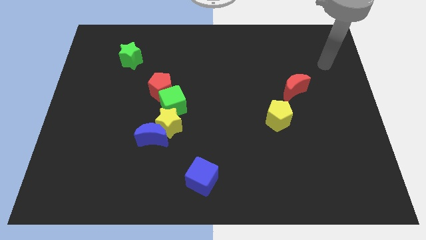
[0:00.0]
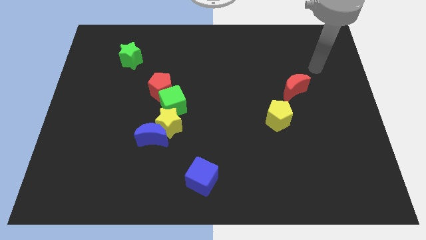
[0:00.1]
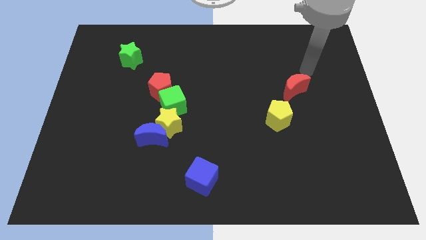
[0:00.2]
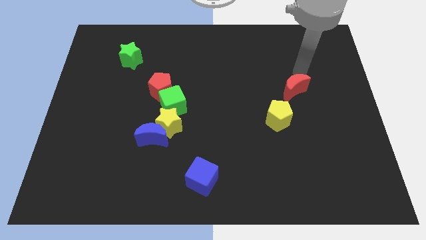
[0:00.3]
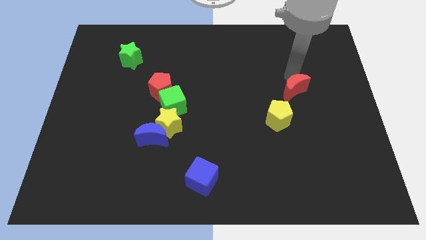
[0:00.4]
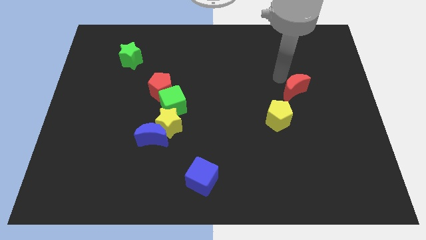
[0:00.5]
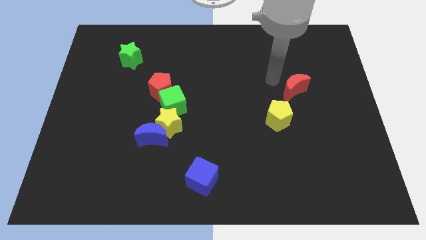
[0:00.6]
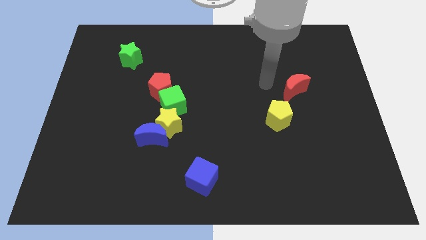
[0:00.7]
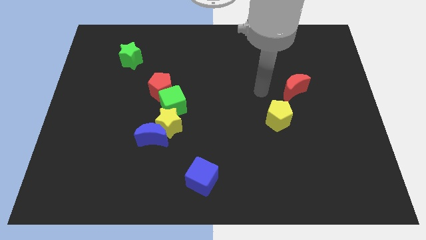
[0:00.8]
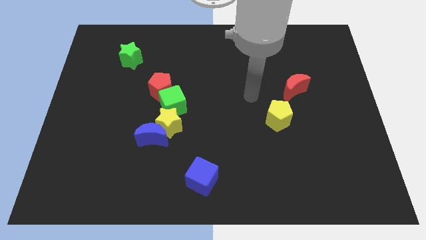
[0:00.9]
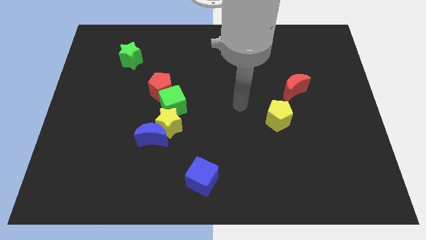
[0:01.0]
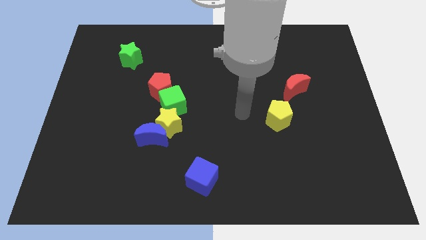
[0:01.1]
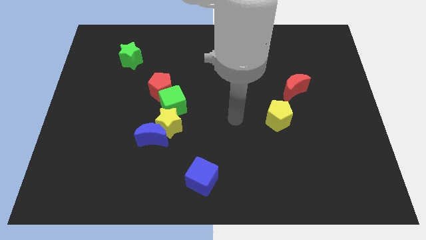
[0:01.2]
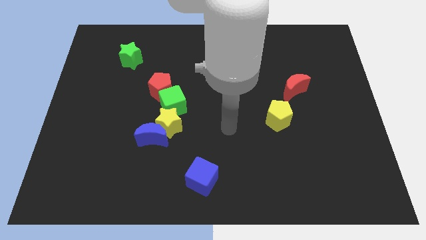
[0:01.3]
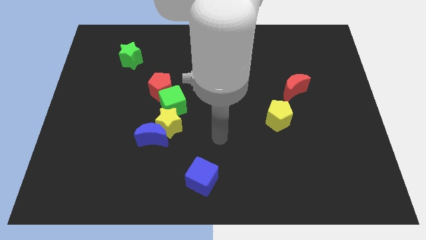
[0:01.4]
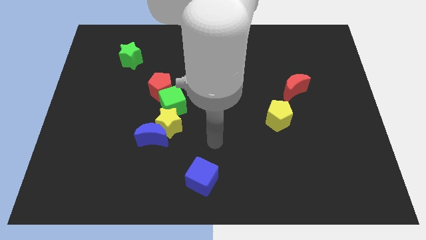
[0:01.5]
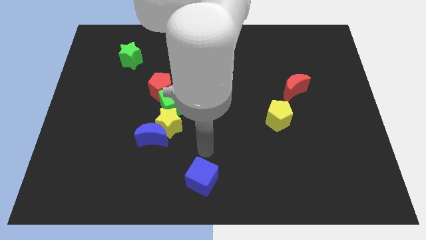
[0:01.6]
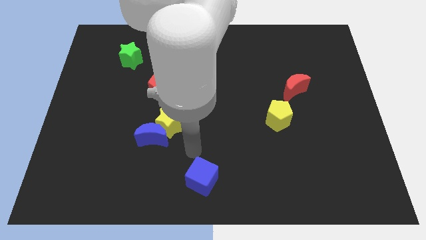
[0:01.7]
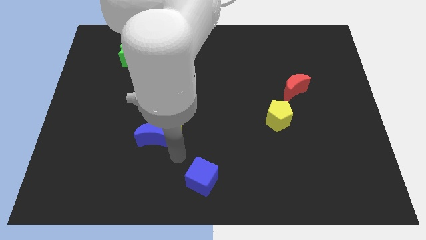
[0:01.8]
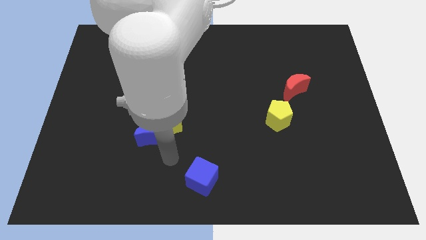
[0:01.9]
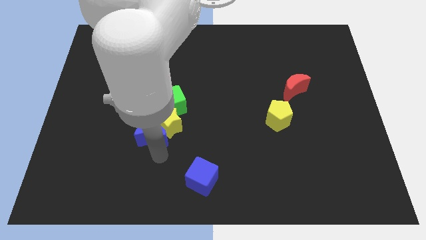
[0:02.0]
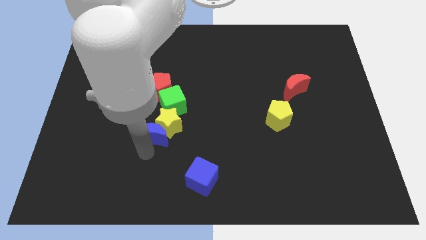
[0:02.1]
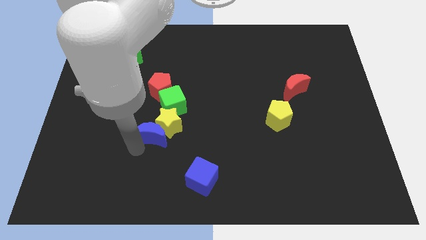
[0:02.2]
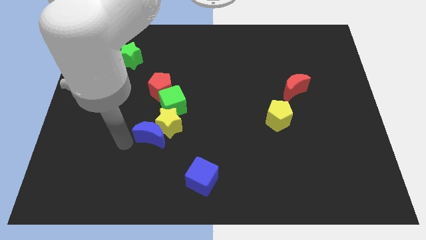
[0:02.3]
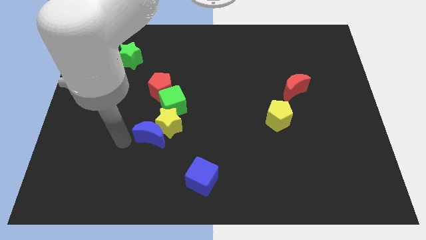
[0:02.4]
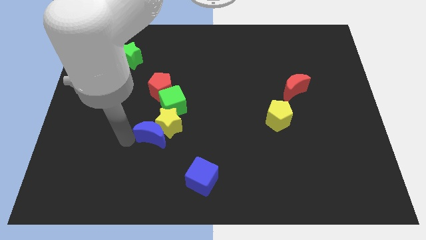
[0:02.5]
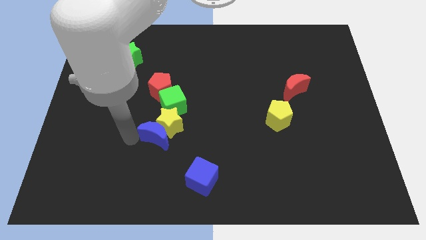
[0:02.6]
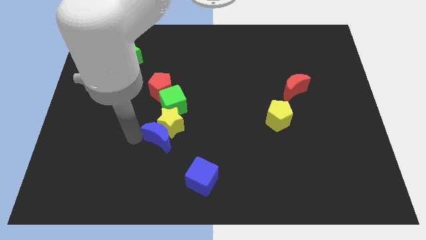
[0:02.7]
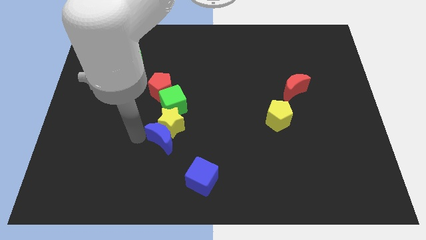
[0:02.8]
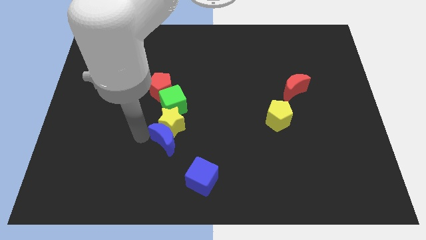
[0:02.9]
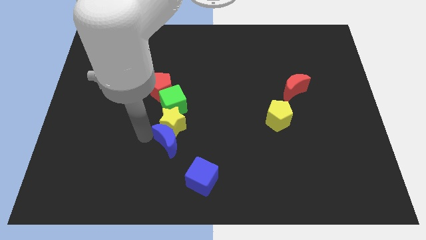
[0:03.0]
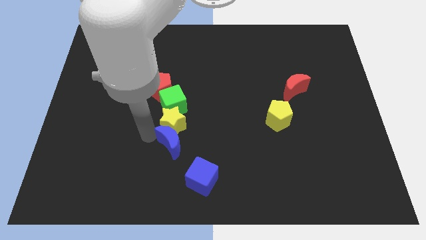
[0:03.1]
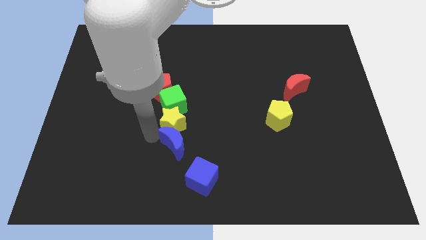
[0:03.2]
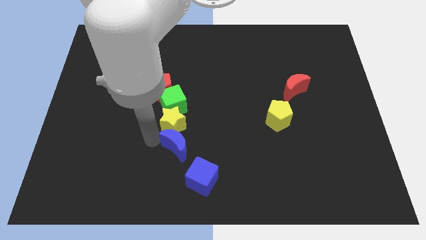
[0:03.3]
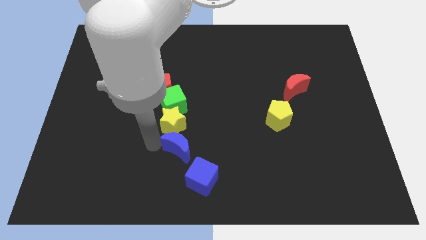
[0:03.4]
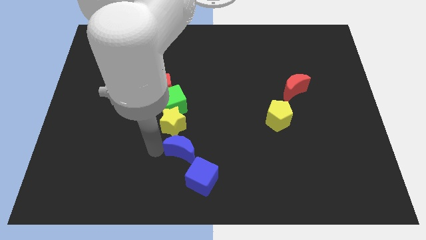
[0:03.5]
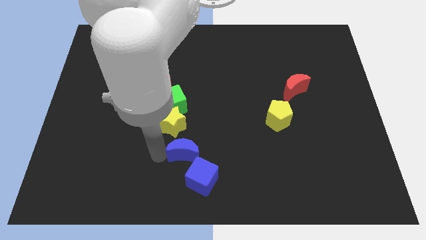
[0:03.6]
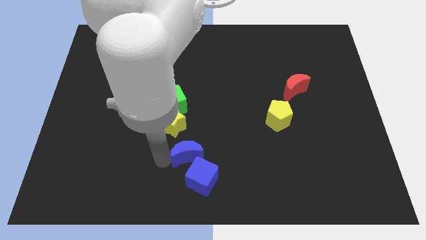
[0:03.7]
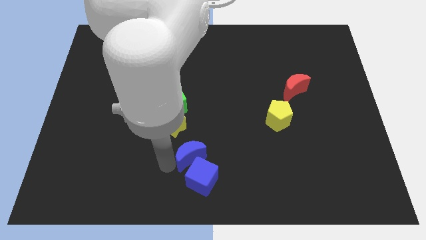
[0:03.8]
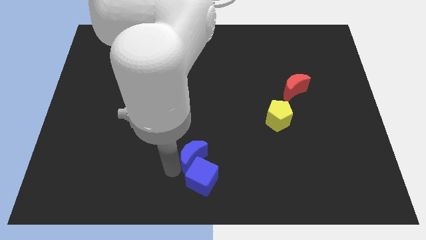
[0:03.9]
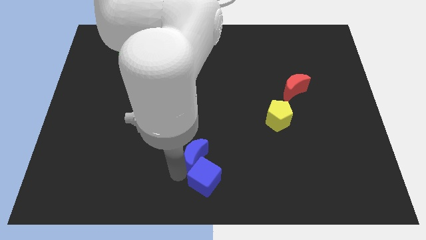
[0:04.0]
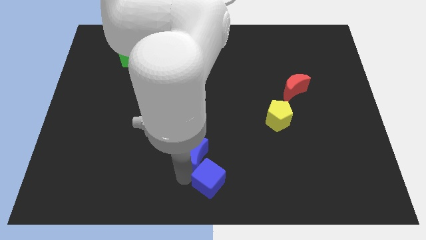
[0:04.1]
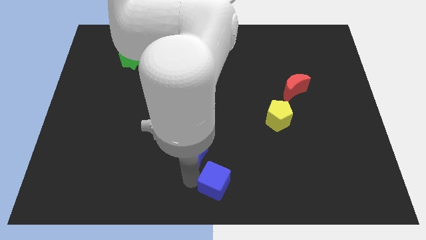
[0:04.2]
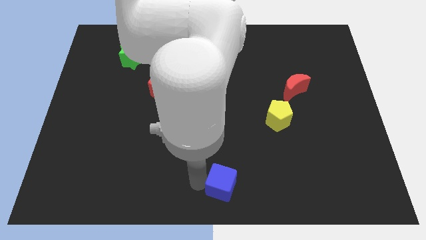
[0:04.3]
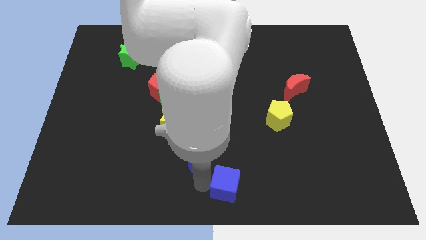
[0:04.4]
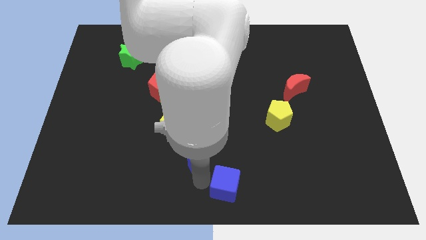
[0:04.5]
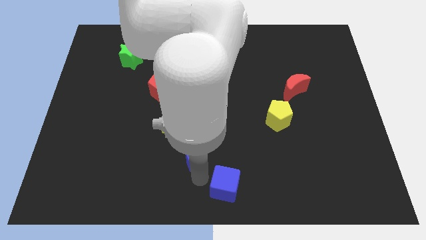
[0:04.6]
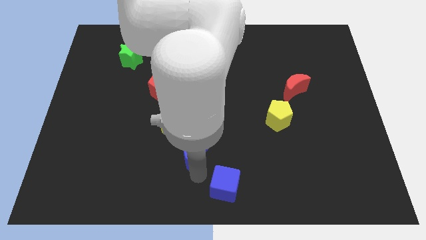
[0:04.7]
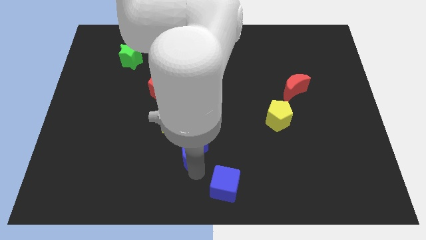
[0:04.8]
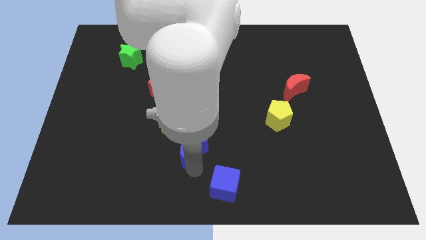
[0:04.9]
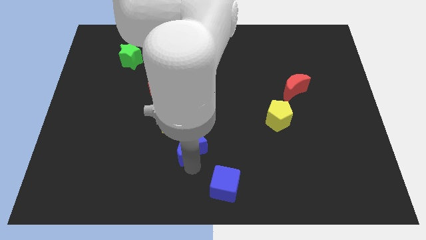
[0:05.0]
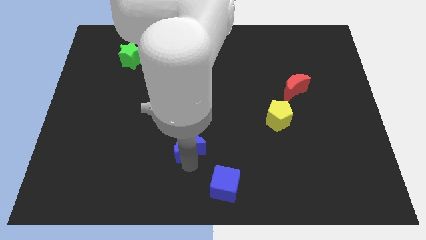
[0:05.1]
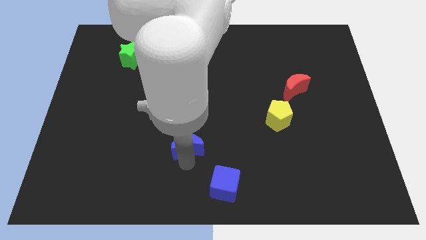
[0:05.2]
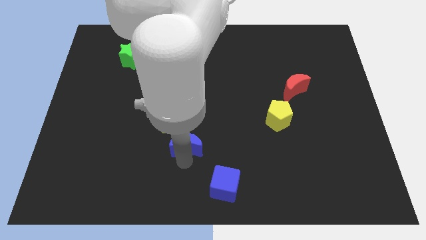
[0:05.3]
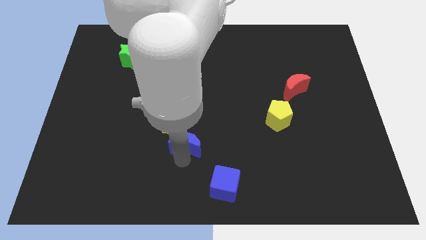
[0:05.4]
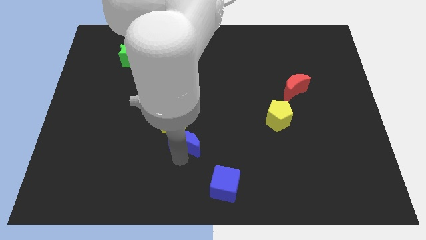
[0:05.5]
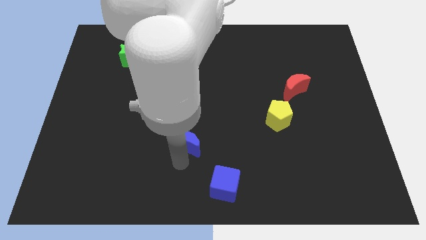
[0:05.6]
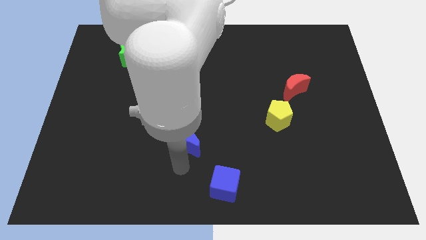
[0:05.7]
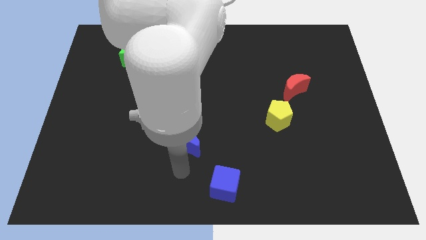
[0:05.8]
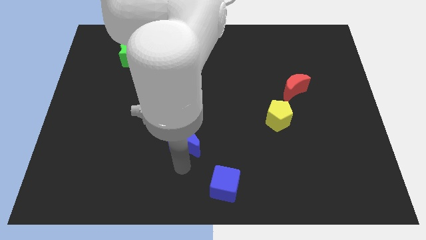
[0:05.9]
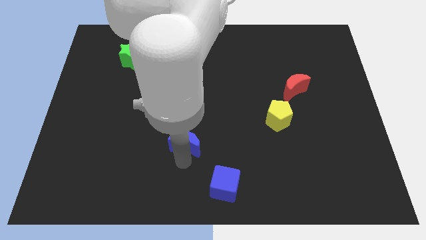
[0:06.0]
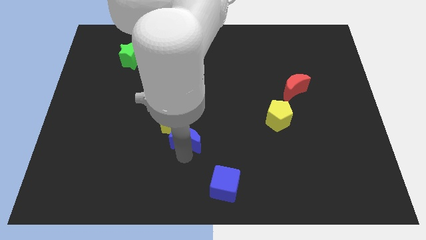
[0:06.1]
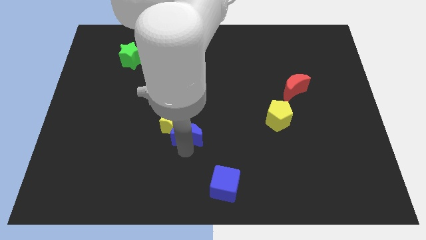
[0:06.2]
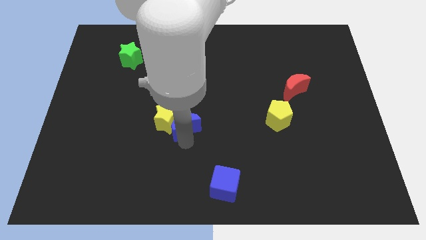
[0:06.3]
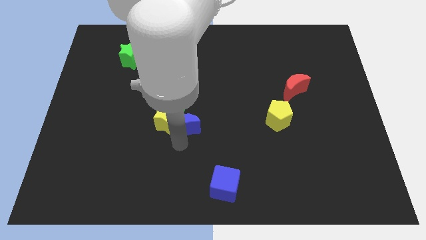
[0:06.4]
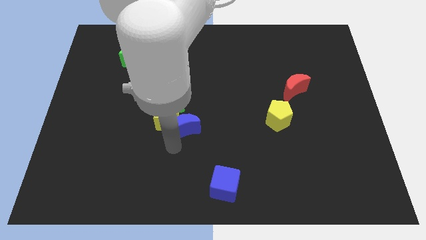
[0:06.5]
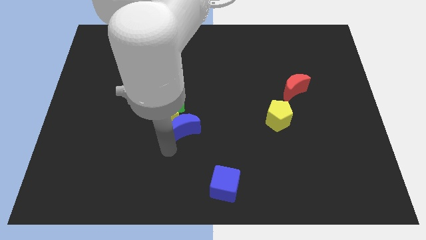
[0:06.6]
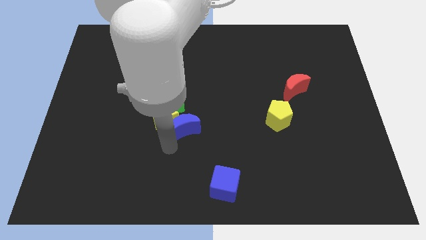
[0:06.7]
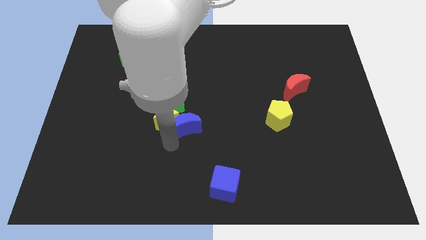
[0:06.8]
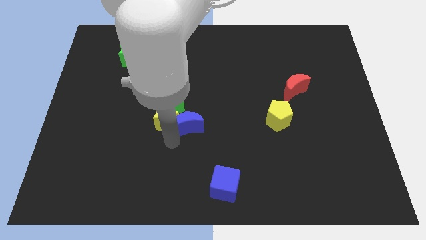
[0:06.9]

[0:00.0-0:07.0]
push the blue moon upwards and right a little bit

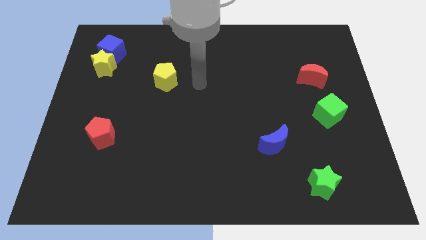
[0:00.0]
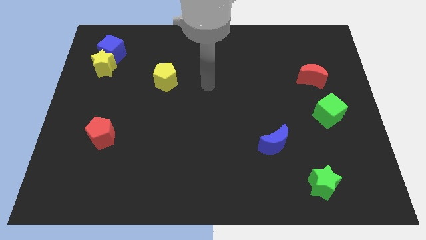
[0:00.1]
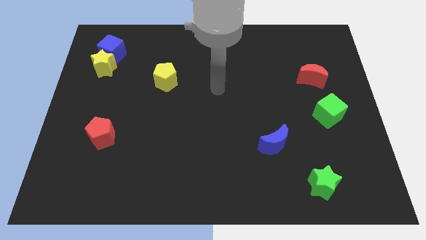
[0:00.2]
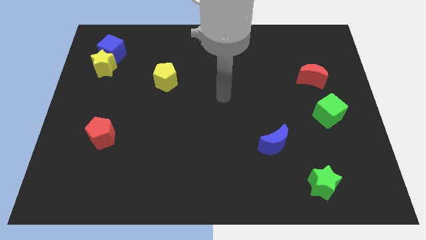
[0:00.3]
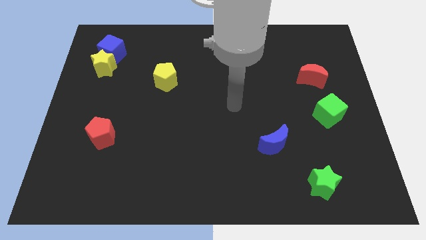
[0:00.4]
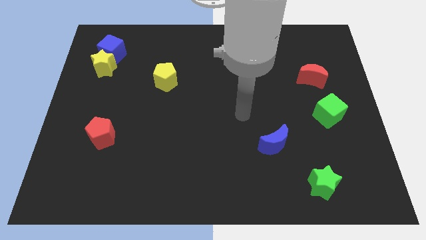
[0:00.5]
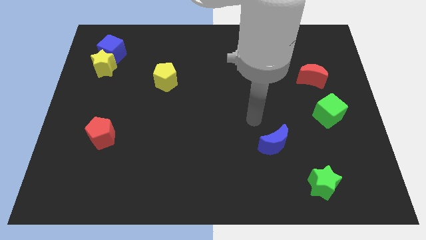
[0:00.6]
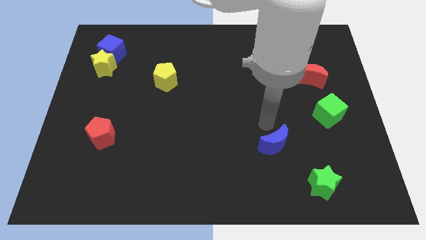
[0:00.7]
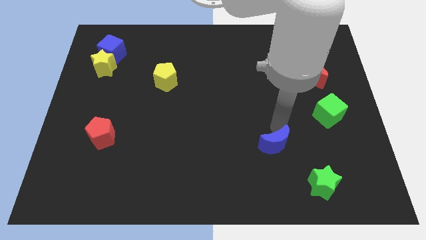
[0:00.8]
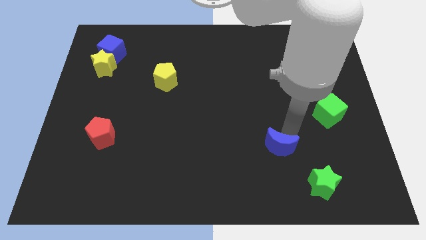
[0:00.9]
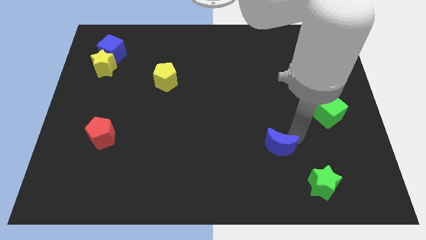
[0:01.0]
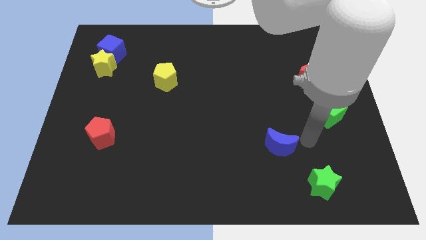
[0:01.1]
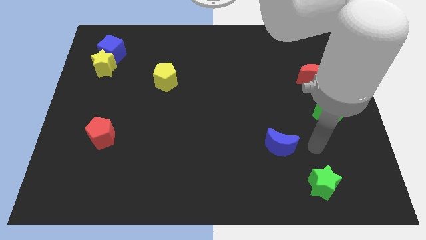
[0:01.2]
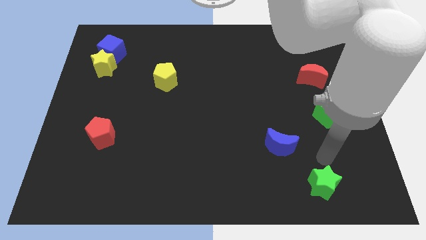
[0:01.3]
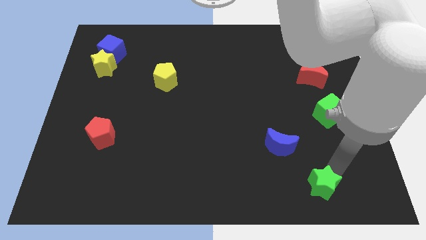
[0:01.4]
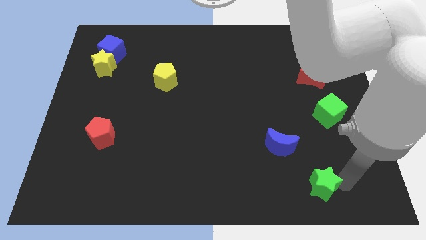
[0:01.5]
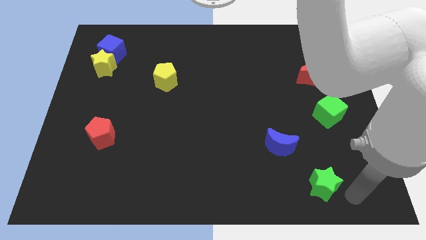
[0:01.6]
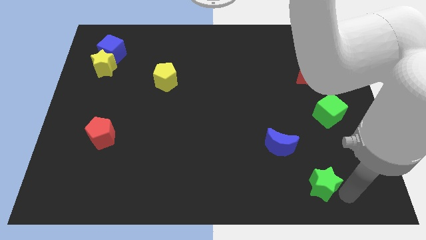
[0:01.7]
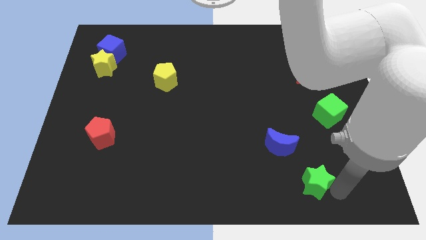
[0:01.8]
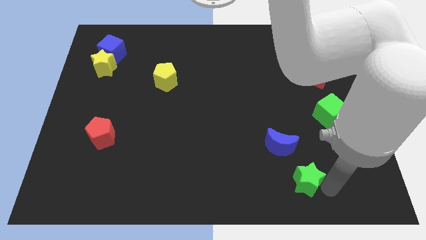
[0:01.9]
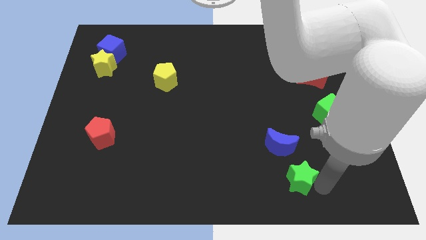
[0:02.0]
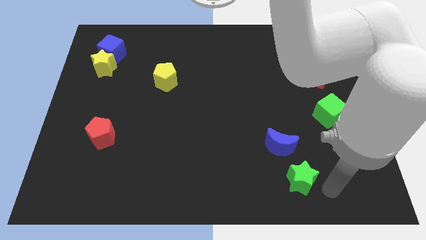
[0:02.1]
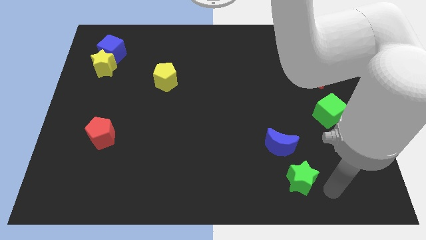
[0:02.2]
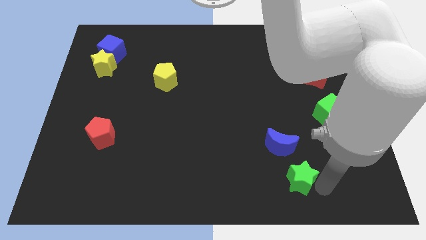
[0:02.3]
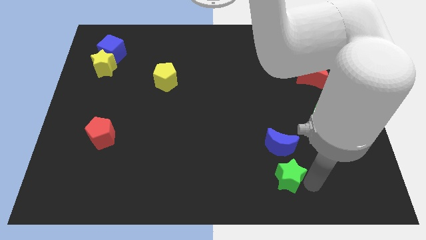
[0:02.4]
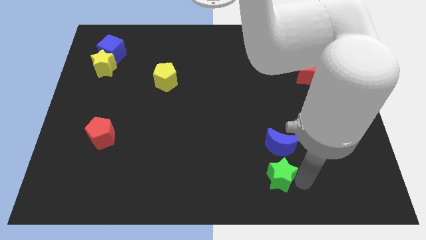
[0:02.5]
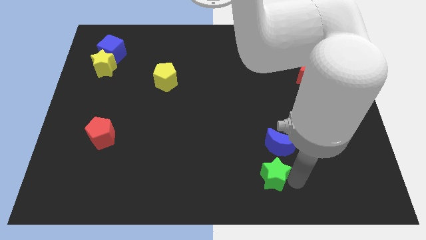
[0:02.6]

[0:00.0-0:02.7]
slide the green star slightly upwards and left diagonally
